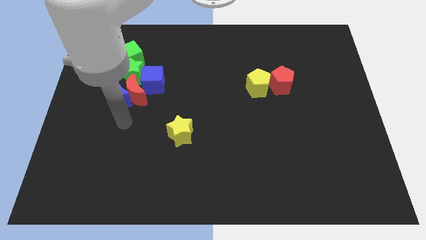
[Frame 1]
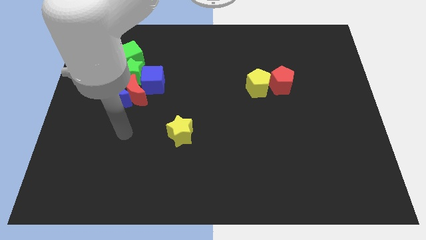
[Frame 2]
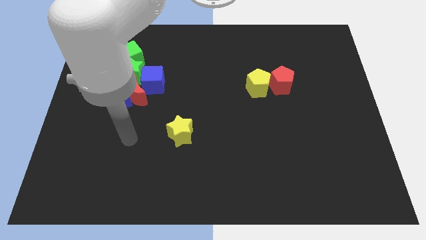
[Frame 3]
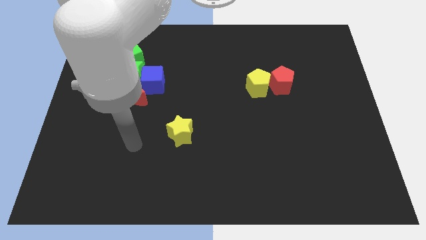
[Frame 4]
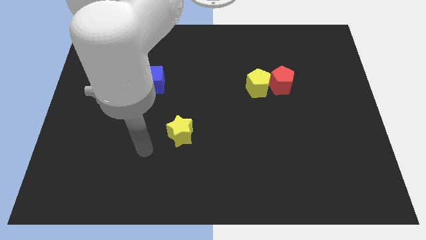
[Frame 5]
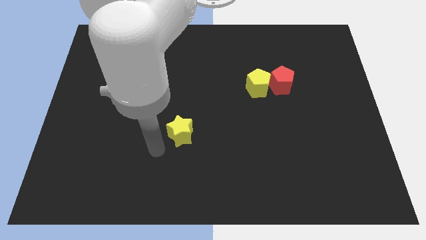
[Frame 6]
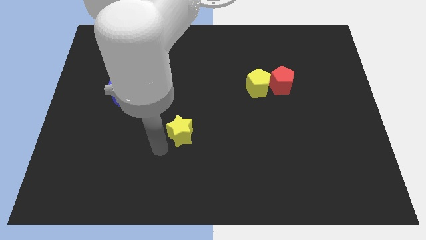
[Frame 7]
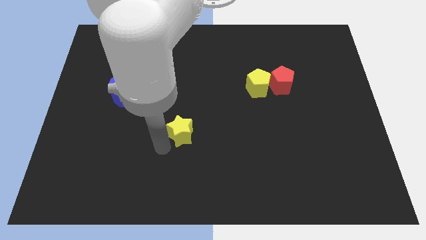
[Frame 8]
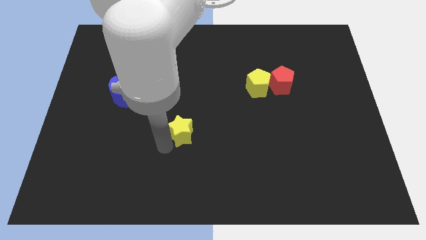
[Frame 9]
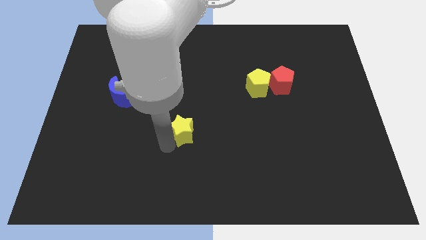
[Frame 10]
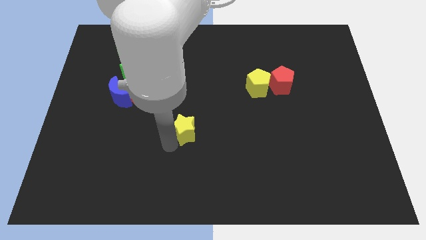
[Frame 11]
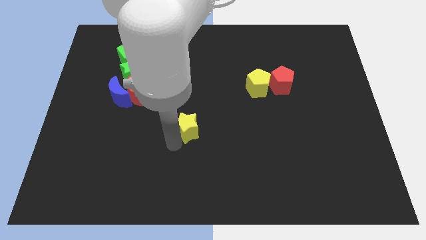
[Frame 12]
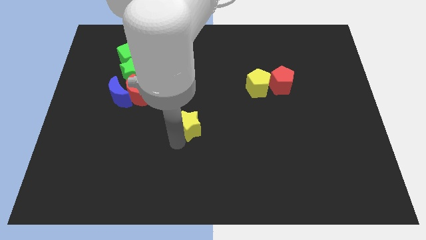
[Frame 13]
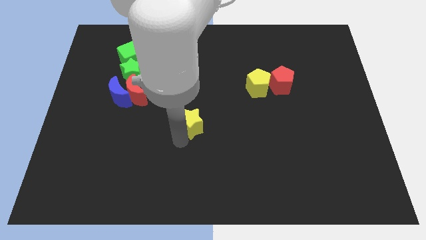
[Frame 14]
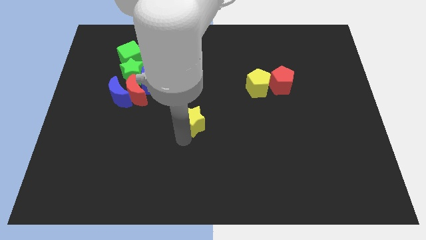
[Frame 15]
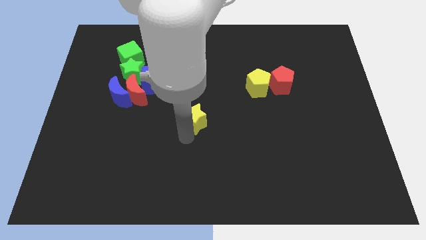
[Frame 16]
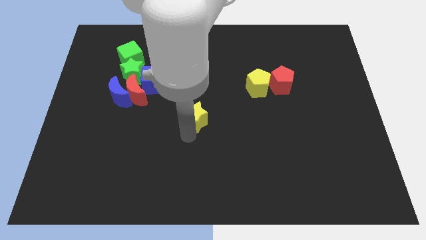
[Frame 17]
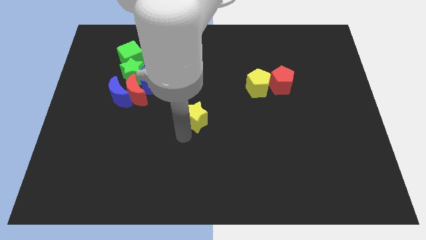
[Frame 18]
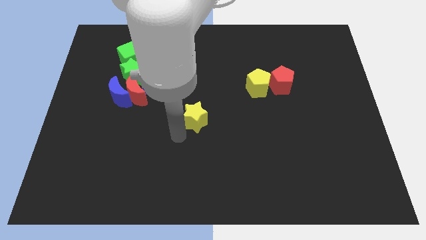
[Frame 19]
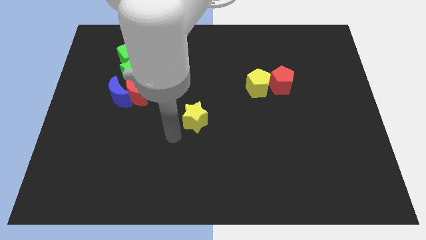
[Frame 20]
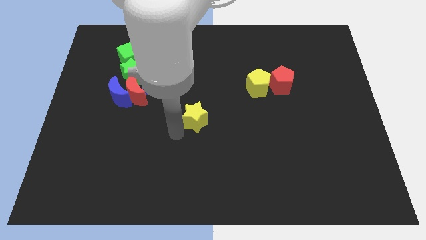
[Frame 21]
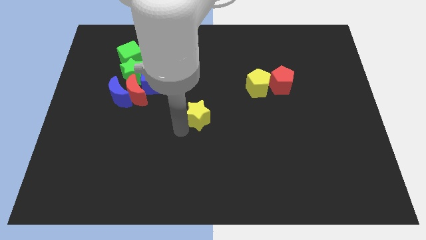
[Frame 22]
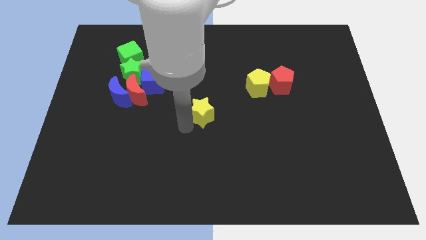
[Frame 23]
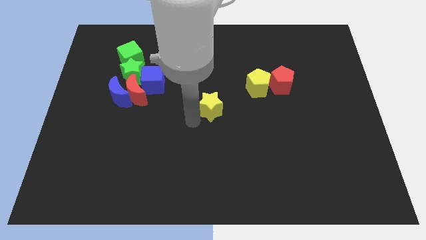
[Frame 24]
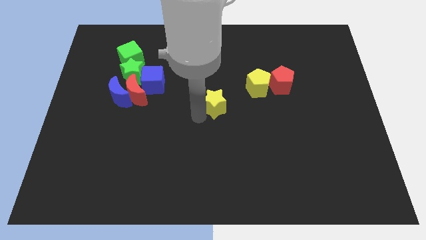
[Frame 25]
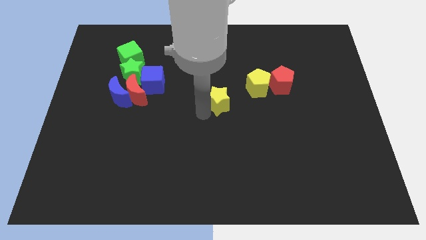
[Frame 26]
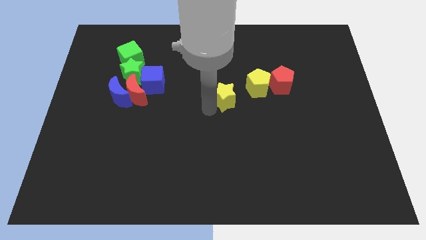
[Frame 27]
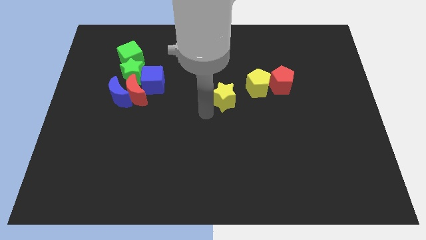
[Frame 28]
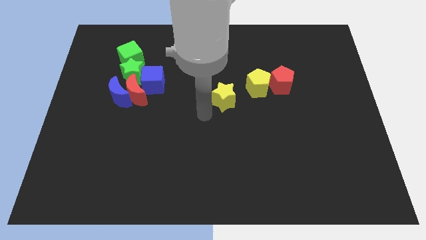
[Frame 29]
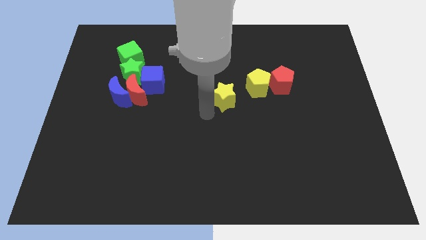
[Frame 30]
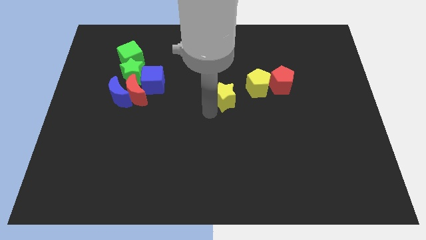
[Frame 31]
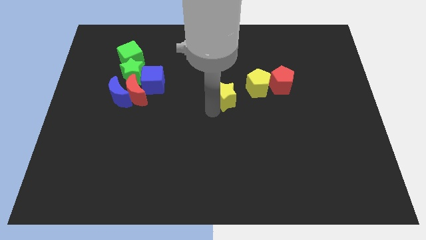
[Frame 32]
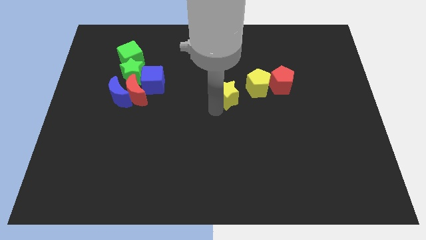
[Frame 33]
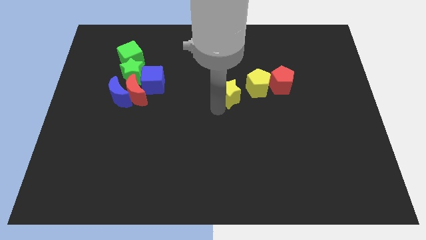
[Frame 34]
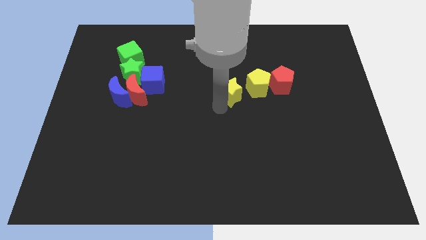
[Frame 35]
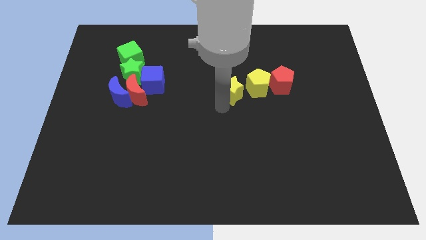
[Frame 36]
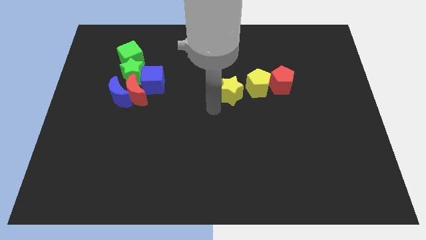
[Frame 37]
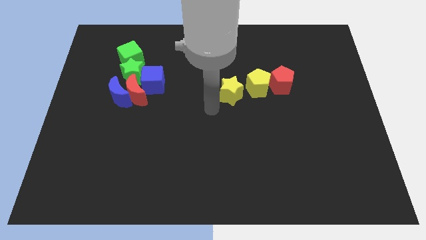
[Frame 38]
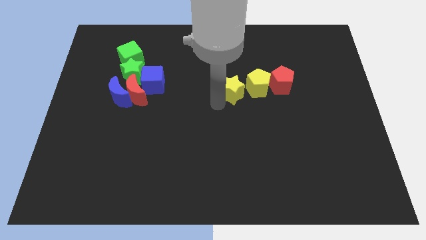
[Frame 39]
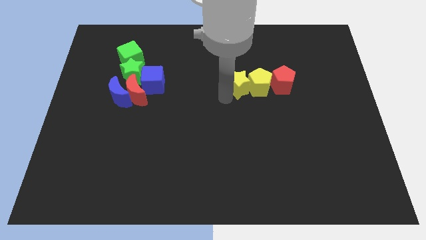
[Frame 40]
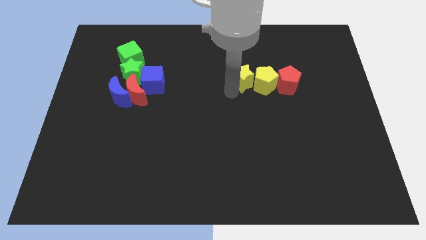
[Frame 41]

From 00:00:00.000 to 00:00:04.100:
push the yellow star upwards and then right

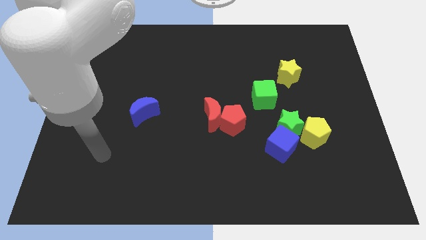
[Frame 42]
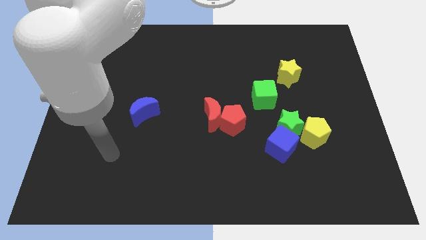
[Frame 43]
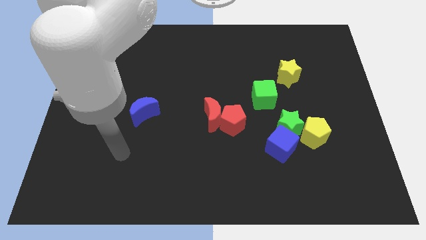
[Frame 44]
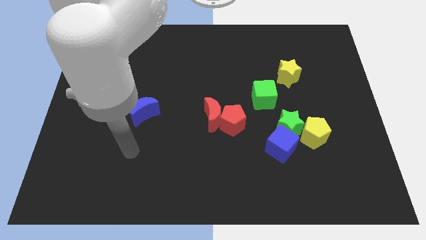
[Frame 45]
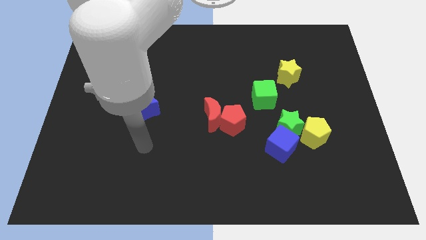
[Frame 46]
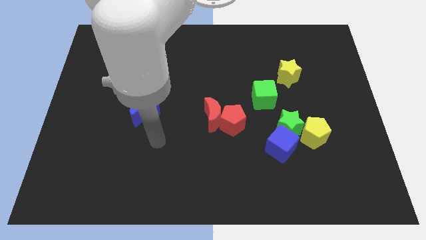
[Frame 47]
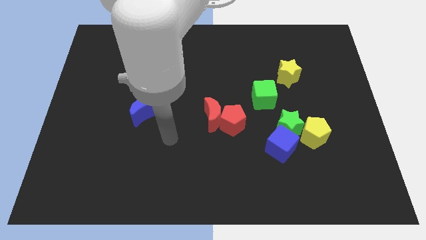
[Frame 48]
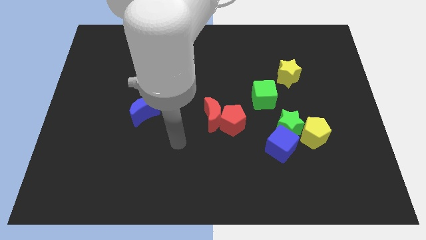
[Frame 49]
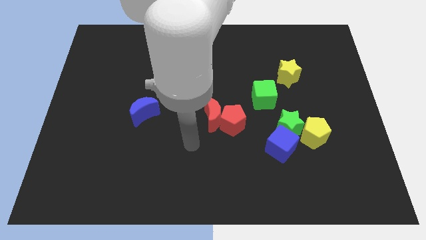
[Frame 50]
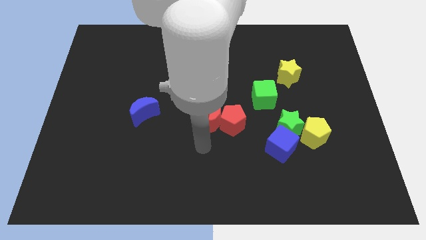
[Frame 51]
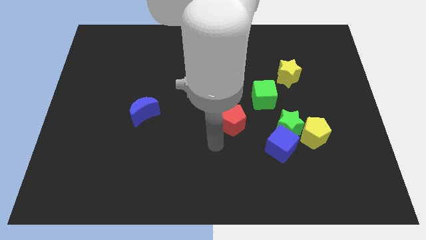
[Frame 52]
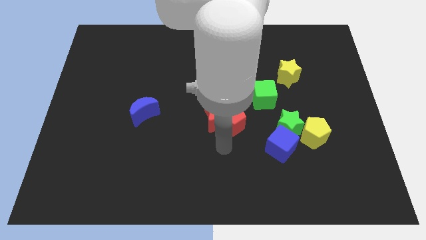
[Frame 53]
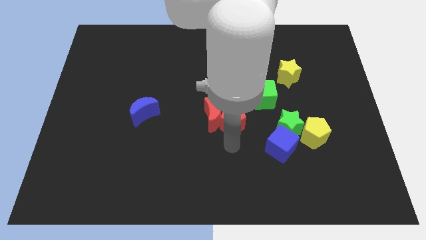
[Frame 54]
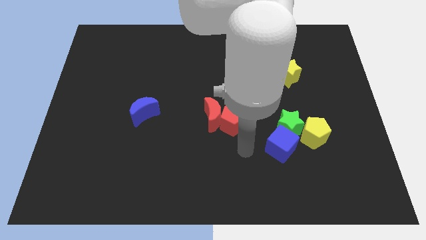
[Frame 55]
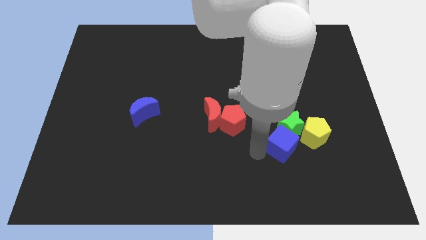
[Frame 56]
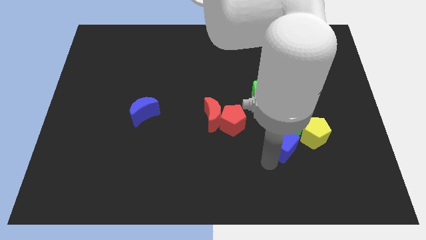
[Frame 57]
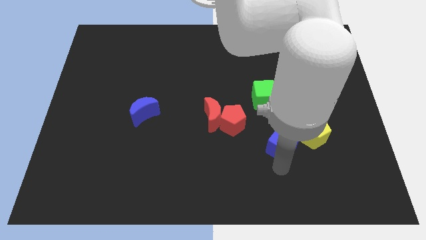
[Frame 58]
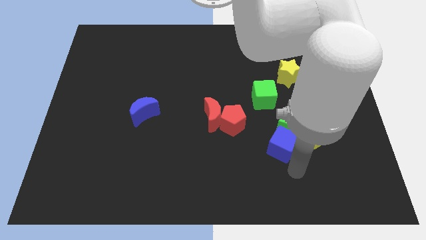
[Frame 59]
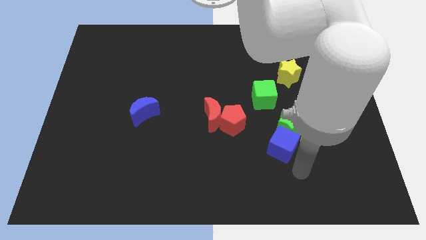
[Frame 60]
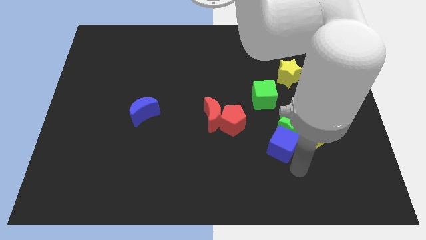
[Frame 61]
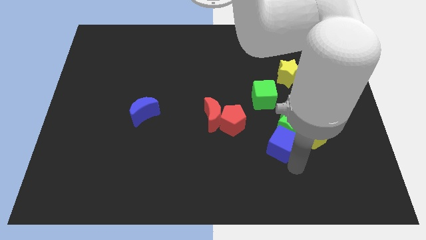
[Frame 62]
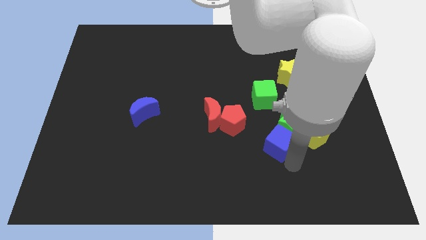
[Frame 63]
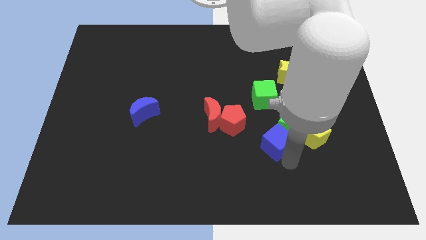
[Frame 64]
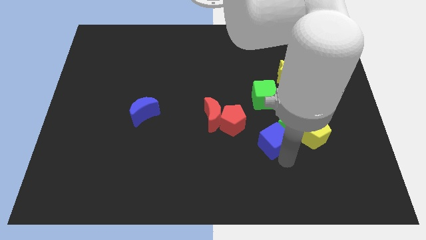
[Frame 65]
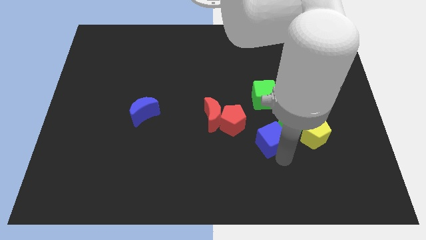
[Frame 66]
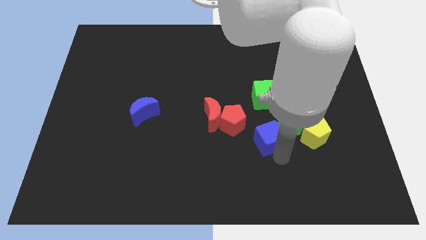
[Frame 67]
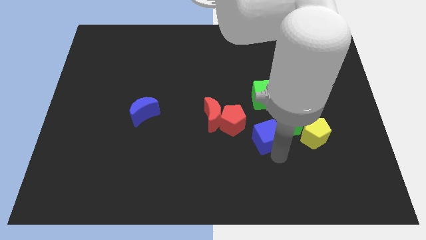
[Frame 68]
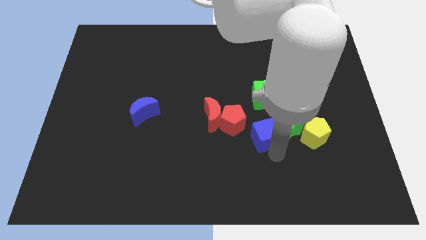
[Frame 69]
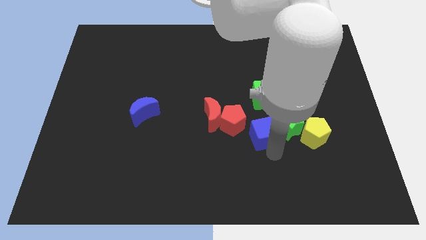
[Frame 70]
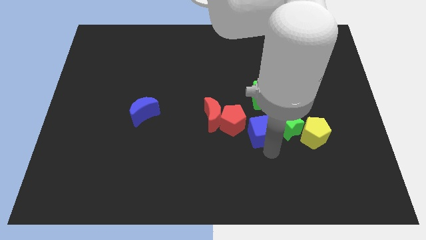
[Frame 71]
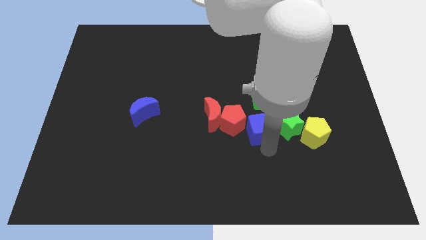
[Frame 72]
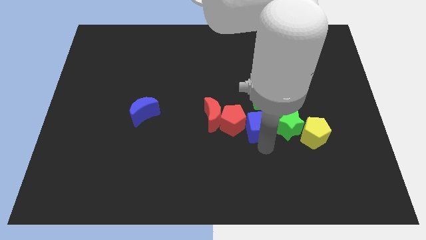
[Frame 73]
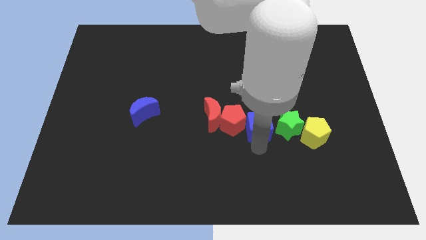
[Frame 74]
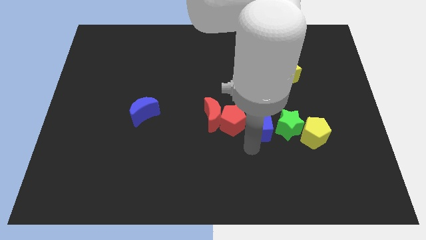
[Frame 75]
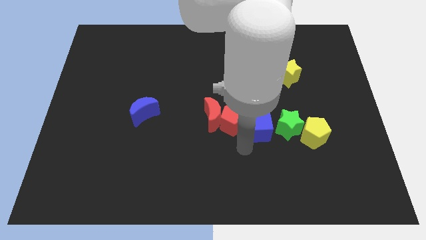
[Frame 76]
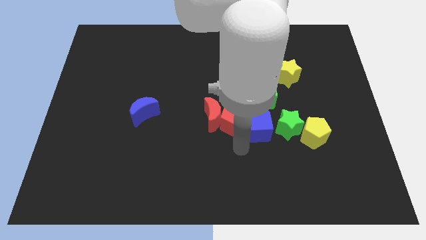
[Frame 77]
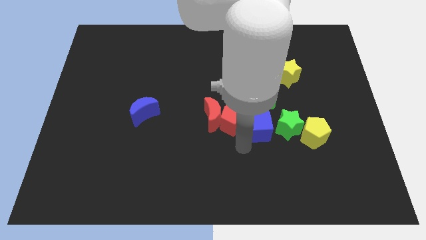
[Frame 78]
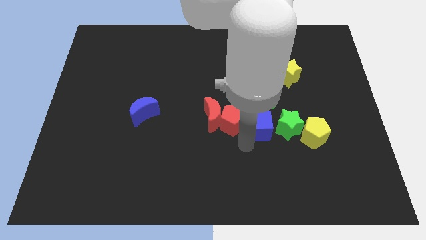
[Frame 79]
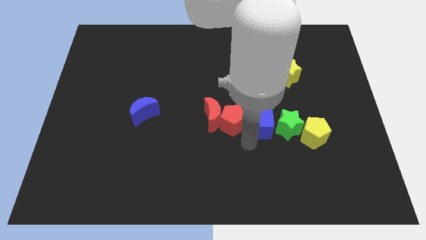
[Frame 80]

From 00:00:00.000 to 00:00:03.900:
move the blue cube upwards and left a little

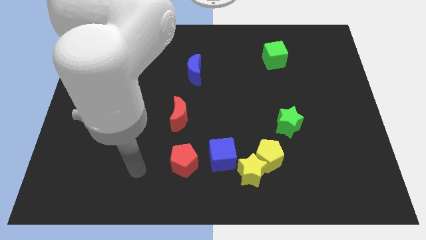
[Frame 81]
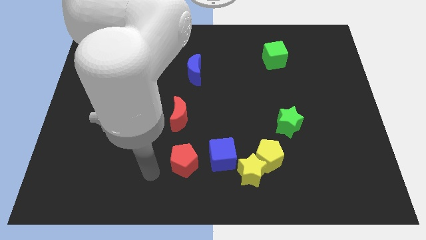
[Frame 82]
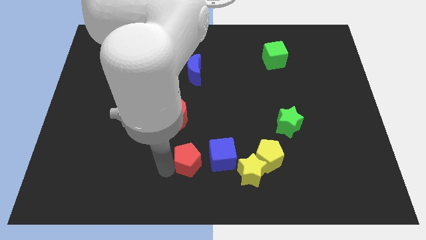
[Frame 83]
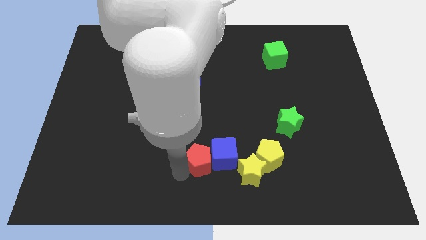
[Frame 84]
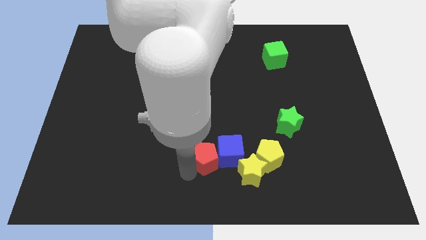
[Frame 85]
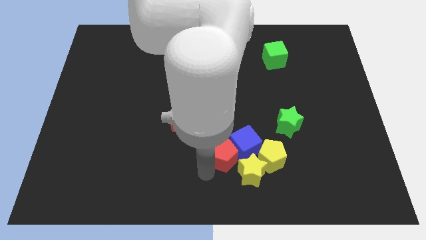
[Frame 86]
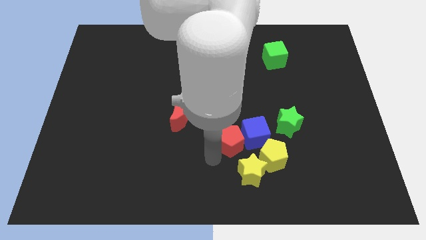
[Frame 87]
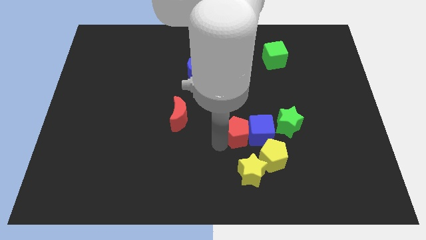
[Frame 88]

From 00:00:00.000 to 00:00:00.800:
push the blue cube a bit to the right
